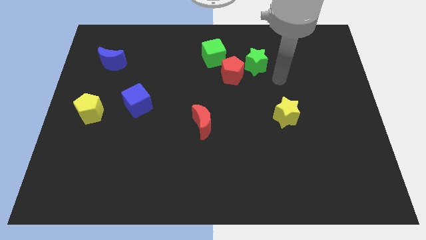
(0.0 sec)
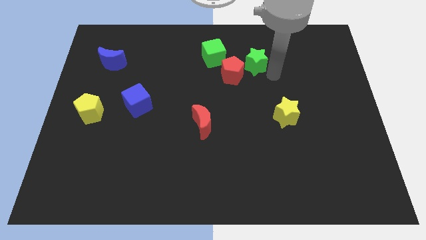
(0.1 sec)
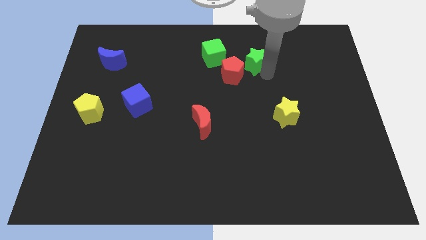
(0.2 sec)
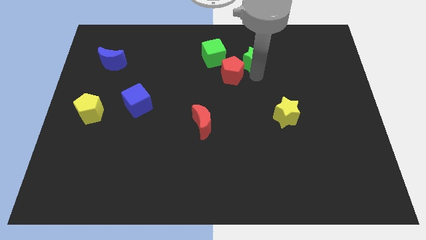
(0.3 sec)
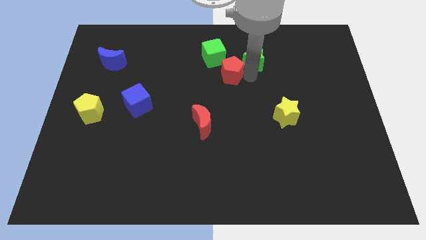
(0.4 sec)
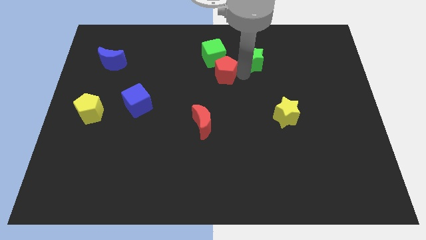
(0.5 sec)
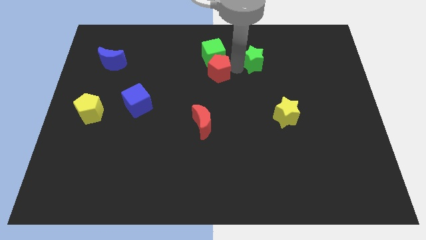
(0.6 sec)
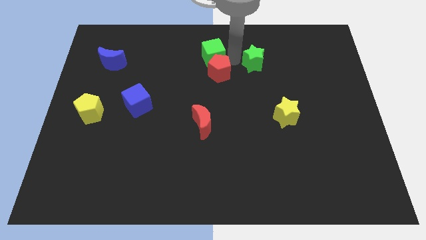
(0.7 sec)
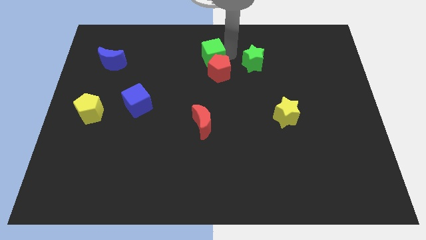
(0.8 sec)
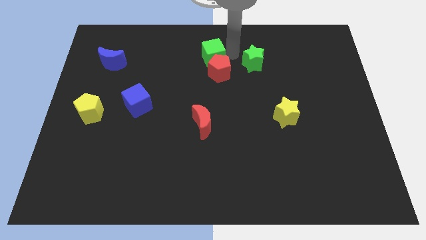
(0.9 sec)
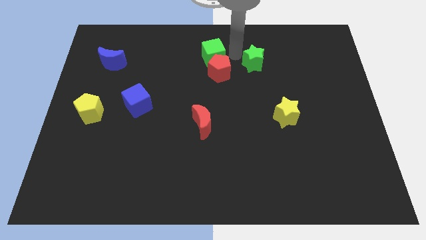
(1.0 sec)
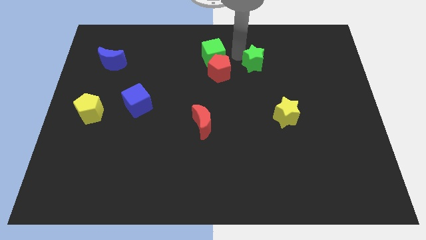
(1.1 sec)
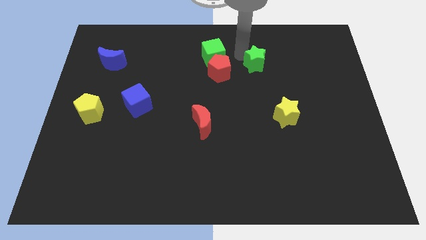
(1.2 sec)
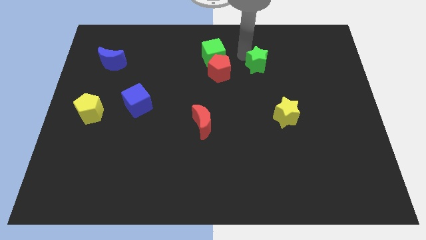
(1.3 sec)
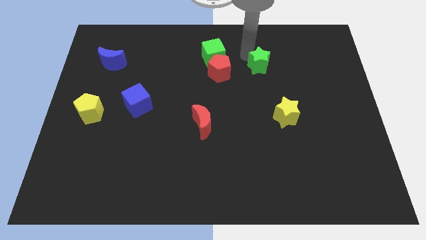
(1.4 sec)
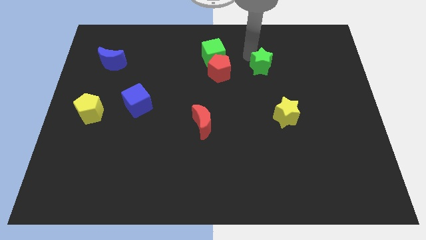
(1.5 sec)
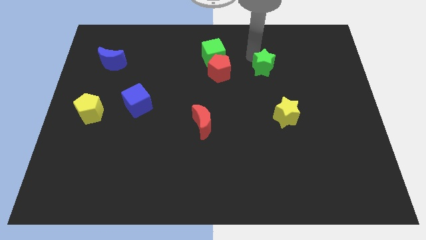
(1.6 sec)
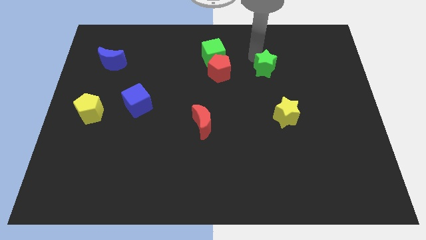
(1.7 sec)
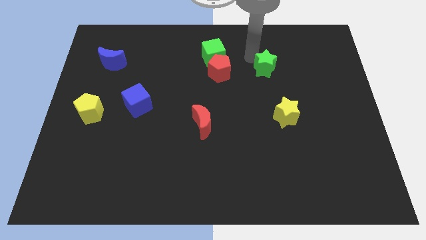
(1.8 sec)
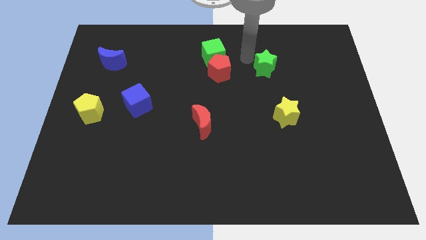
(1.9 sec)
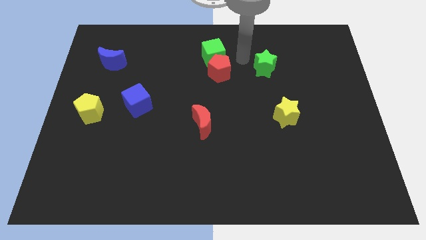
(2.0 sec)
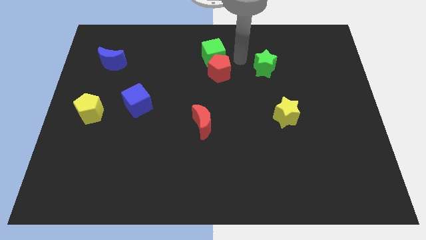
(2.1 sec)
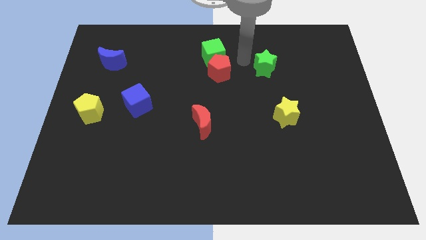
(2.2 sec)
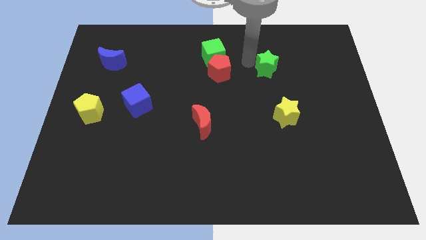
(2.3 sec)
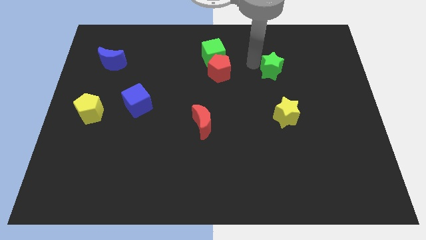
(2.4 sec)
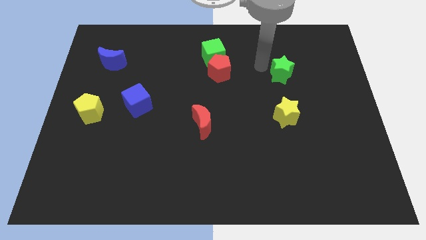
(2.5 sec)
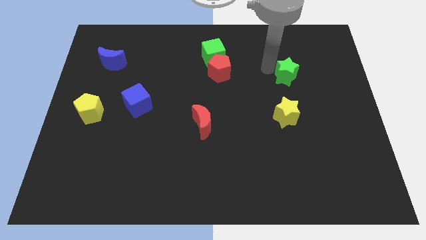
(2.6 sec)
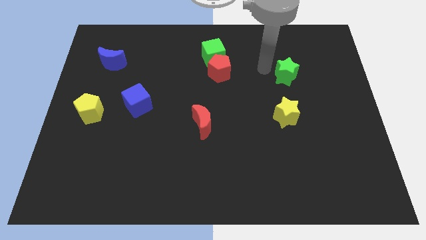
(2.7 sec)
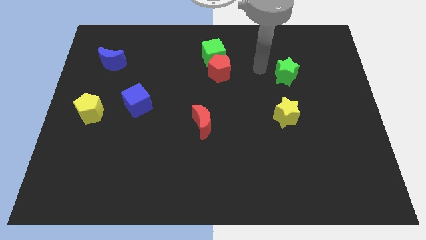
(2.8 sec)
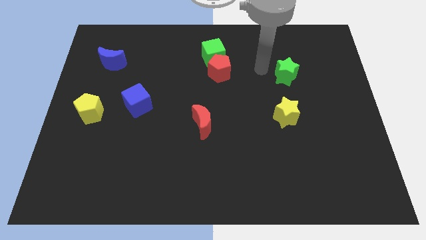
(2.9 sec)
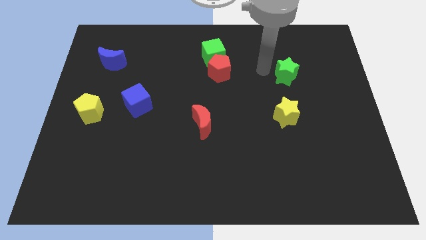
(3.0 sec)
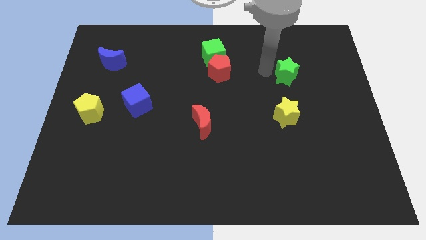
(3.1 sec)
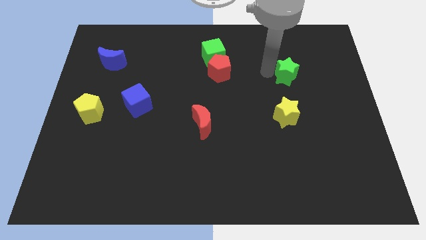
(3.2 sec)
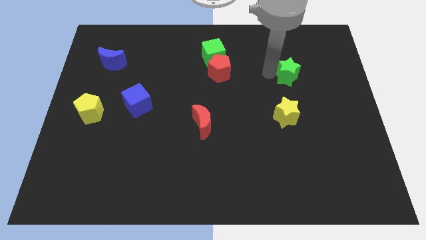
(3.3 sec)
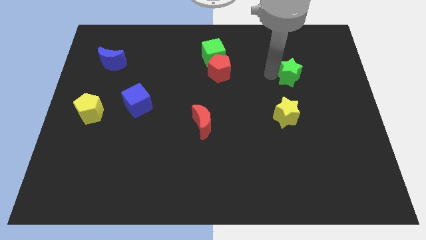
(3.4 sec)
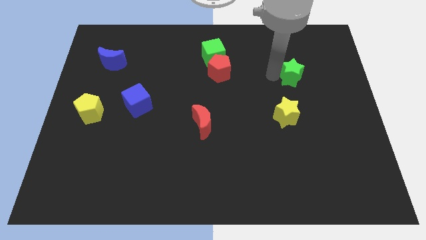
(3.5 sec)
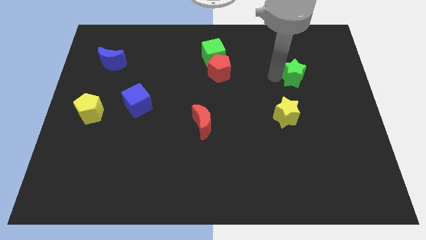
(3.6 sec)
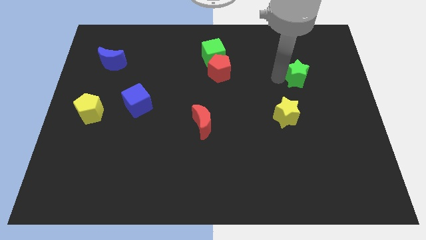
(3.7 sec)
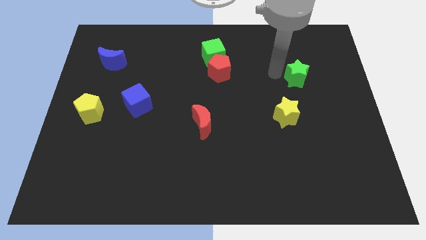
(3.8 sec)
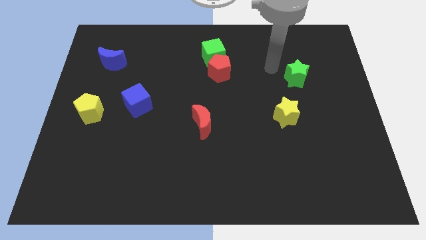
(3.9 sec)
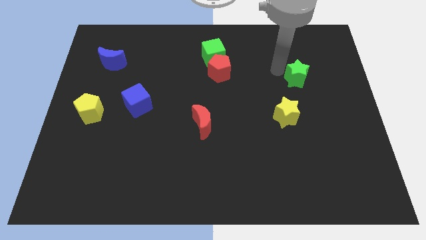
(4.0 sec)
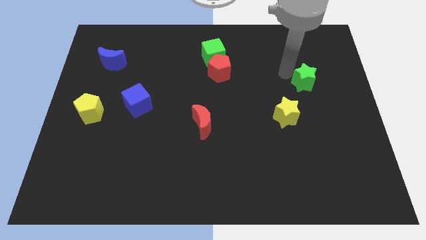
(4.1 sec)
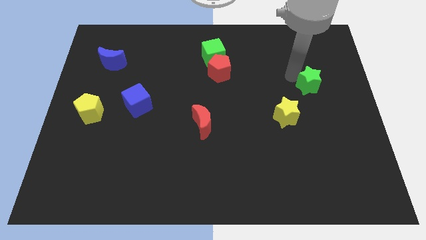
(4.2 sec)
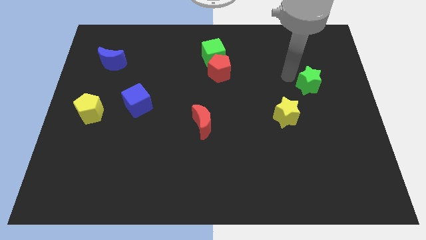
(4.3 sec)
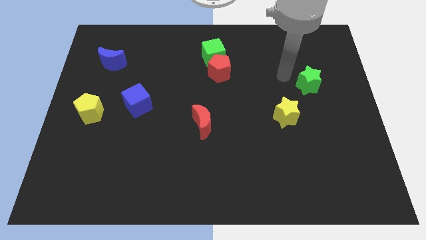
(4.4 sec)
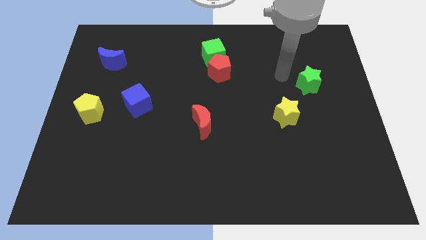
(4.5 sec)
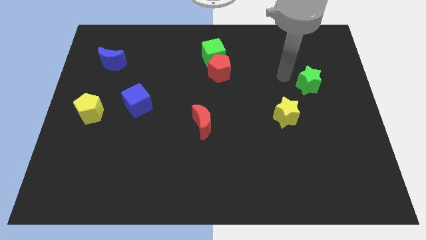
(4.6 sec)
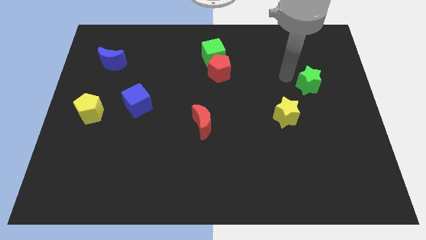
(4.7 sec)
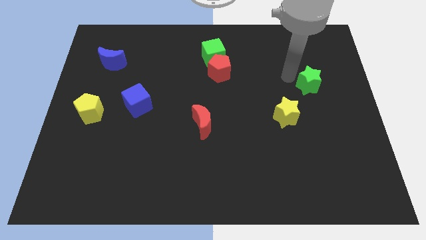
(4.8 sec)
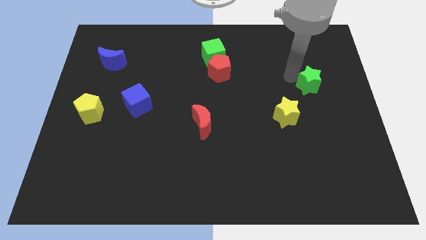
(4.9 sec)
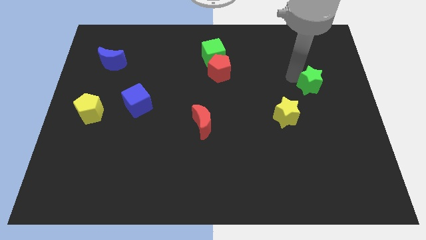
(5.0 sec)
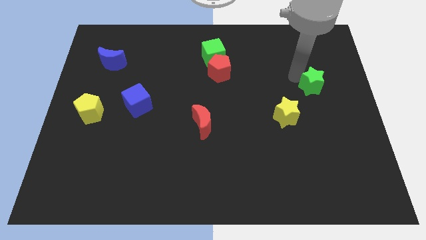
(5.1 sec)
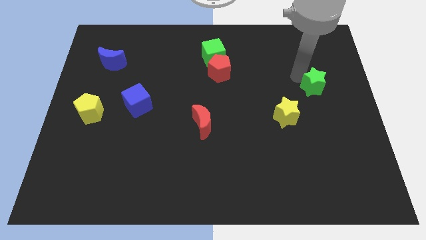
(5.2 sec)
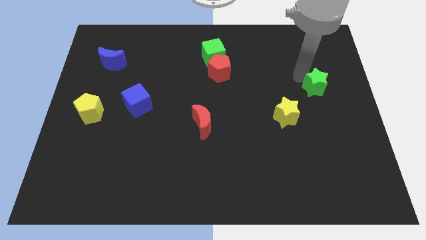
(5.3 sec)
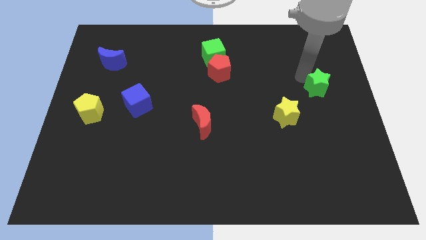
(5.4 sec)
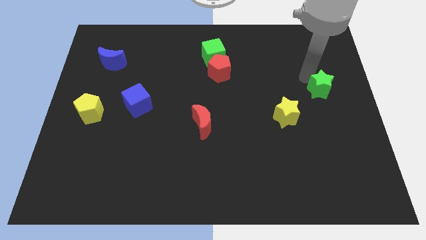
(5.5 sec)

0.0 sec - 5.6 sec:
put the green star to the right side

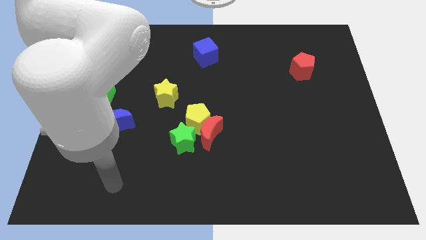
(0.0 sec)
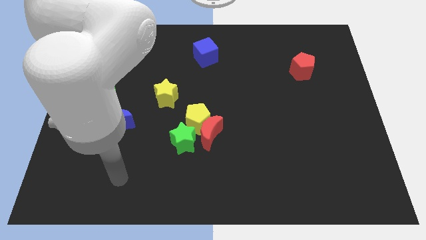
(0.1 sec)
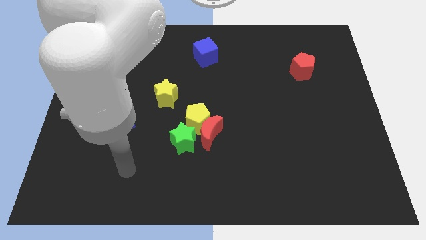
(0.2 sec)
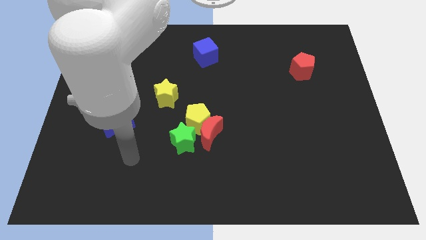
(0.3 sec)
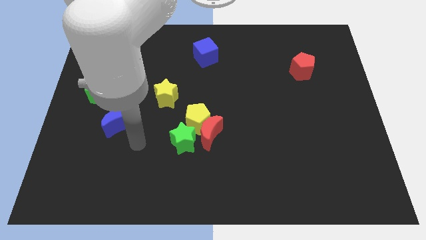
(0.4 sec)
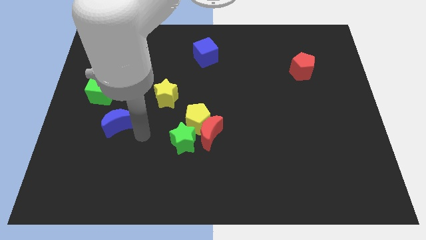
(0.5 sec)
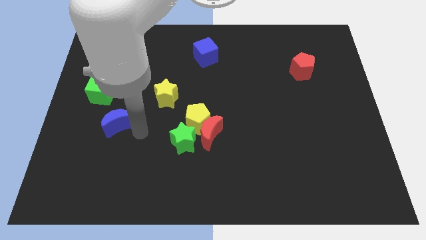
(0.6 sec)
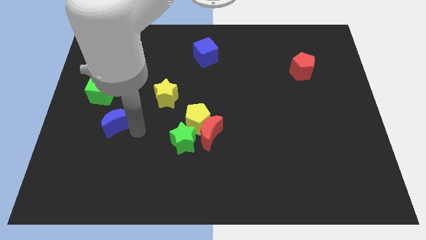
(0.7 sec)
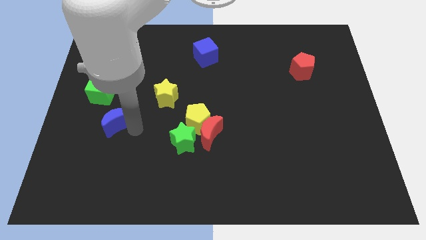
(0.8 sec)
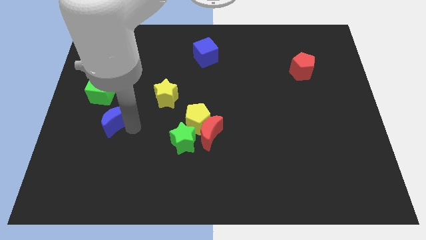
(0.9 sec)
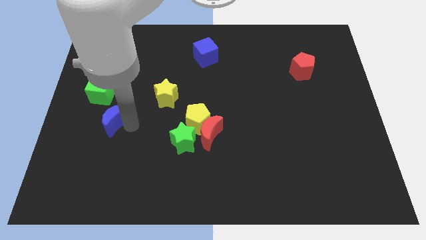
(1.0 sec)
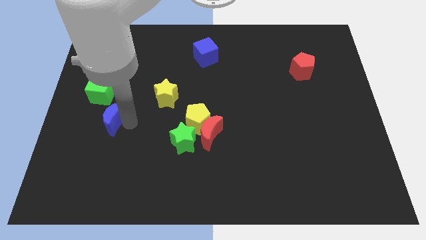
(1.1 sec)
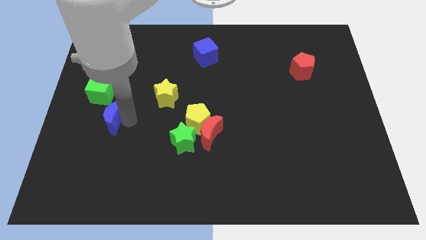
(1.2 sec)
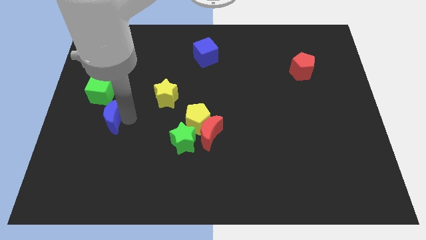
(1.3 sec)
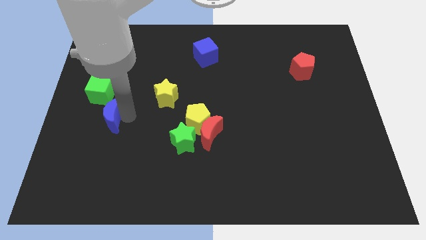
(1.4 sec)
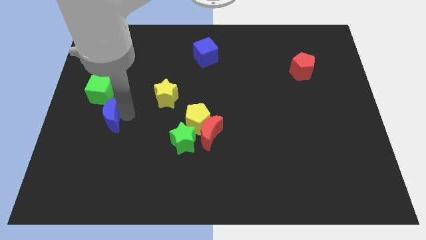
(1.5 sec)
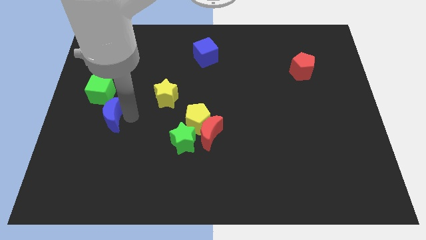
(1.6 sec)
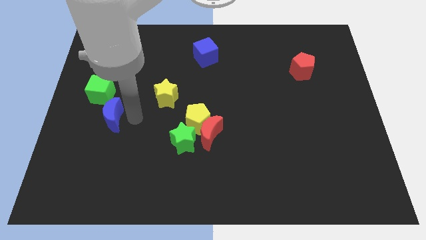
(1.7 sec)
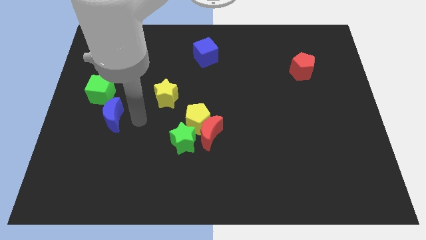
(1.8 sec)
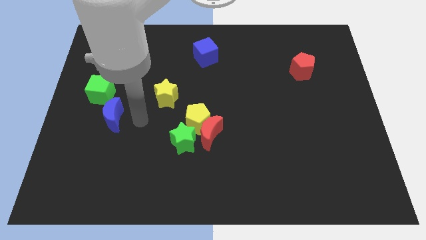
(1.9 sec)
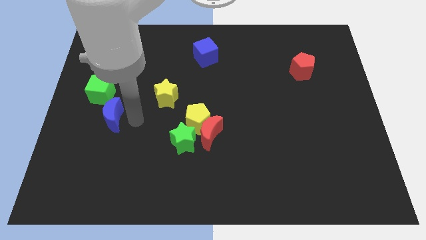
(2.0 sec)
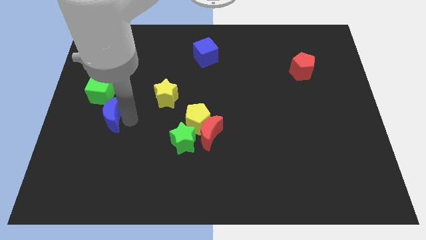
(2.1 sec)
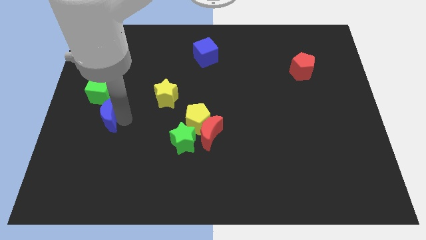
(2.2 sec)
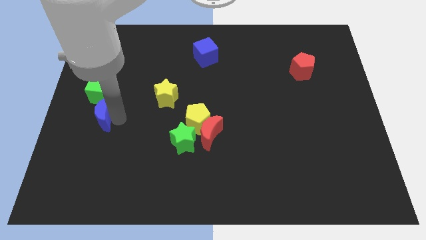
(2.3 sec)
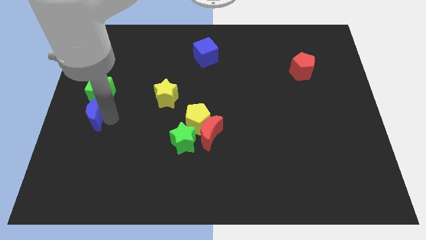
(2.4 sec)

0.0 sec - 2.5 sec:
push the blue moon to the left side
